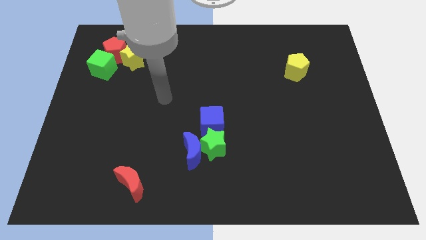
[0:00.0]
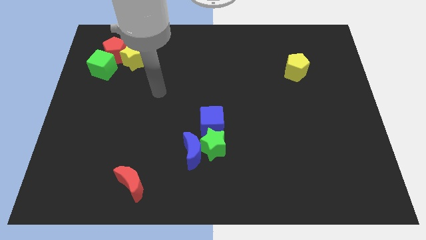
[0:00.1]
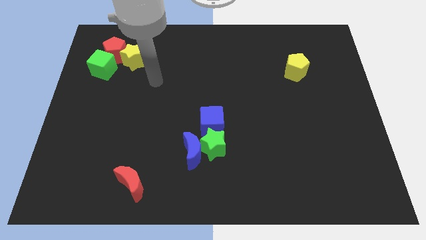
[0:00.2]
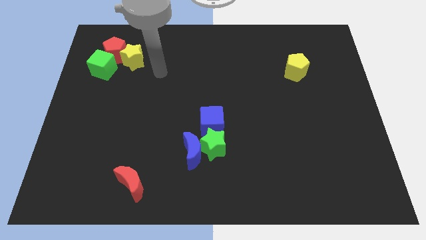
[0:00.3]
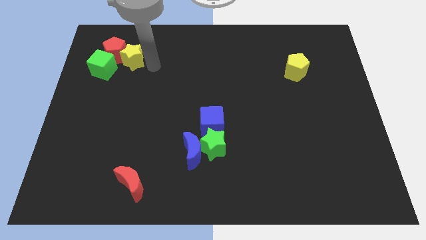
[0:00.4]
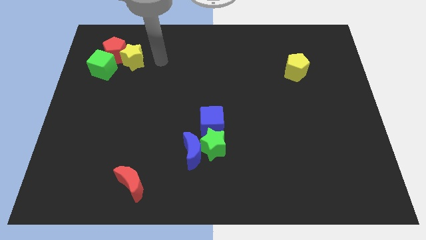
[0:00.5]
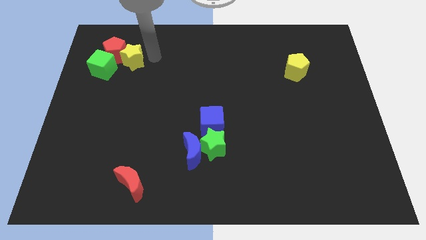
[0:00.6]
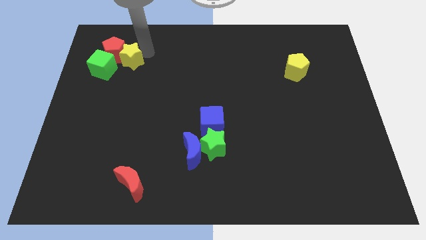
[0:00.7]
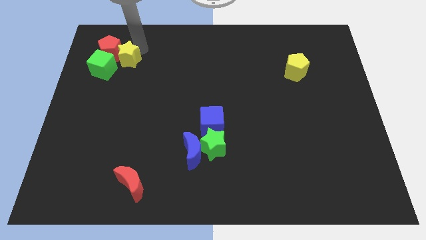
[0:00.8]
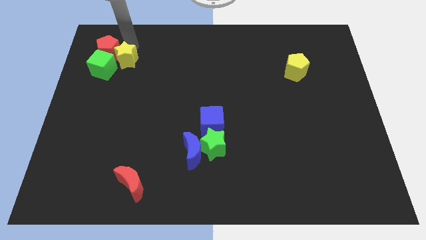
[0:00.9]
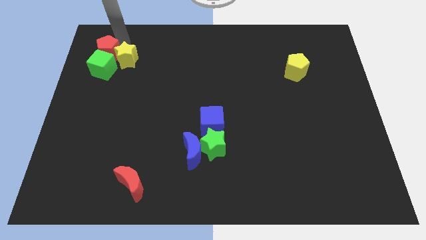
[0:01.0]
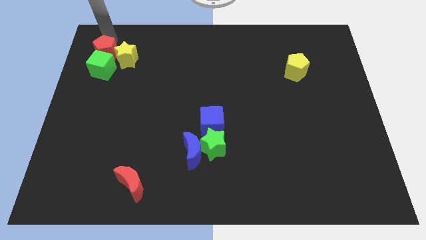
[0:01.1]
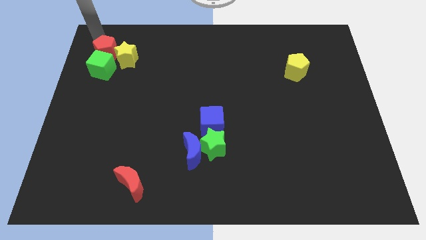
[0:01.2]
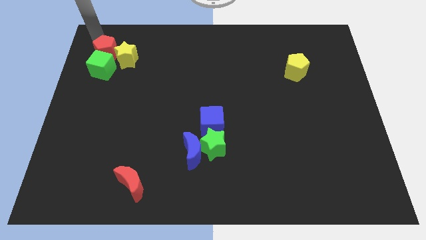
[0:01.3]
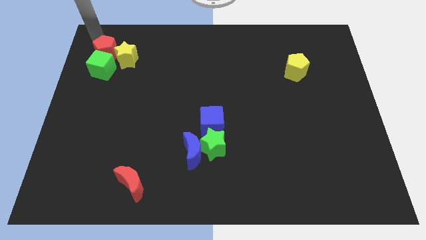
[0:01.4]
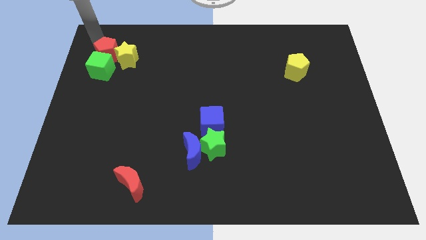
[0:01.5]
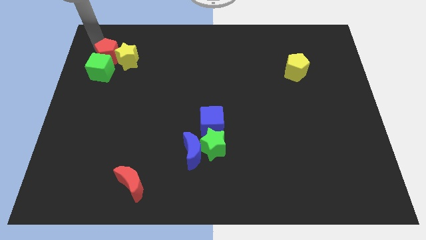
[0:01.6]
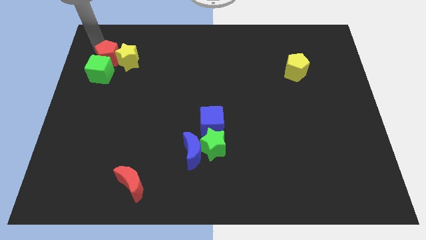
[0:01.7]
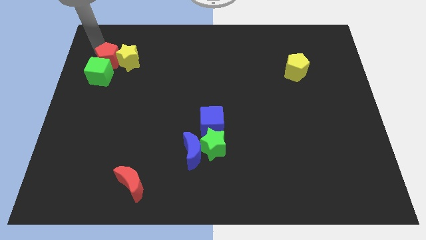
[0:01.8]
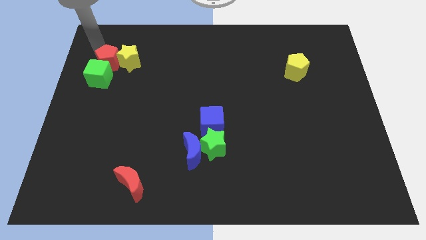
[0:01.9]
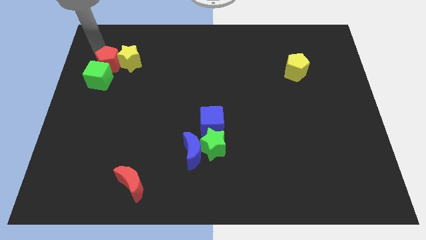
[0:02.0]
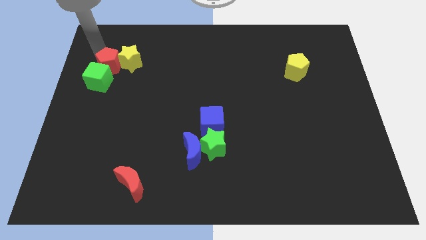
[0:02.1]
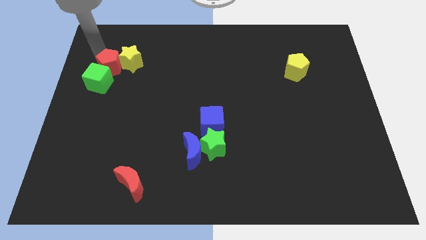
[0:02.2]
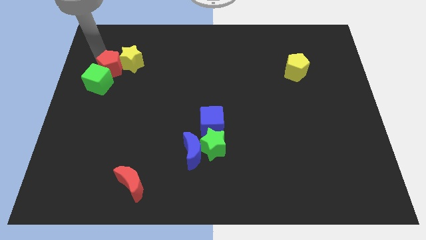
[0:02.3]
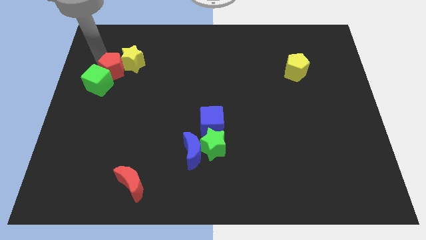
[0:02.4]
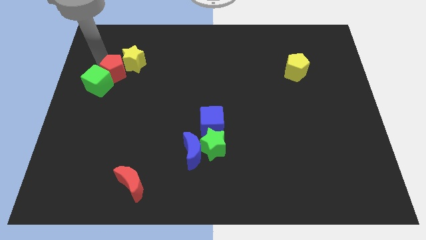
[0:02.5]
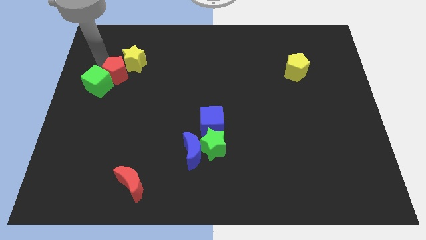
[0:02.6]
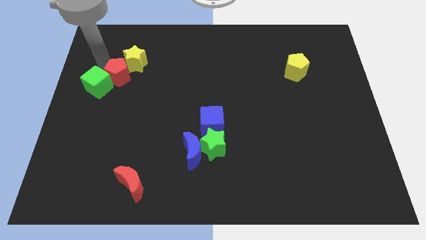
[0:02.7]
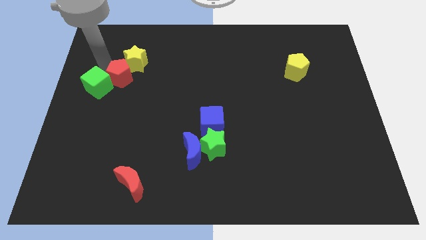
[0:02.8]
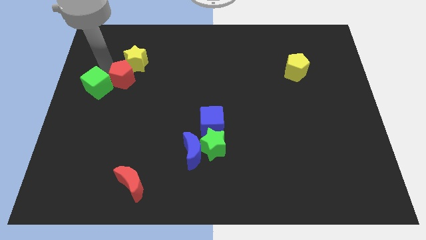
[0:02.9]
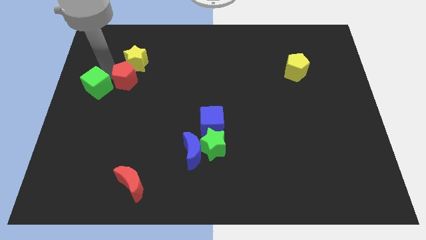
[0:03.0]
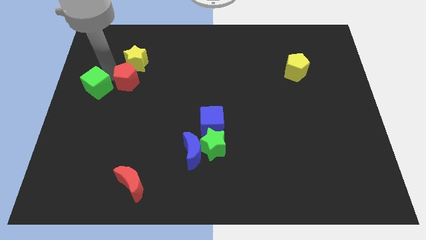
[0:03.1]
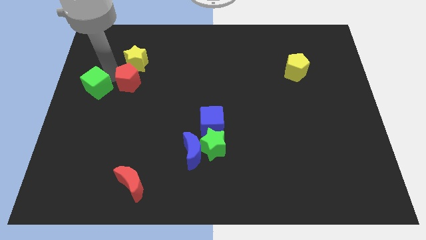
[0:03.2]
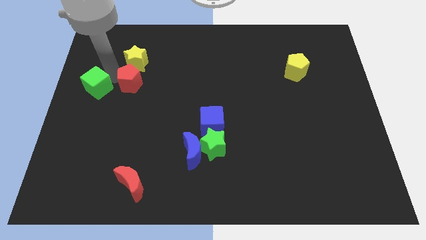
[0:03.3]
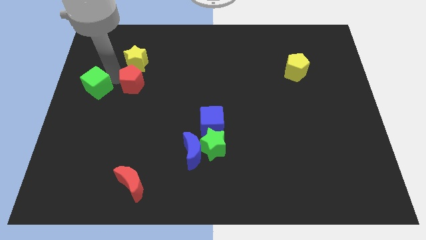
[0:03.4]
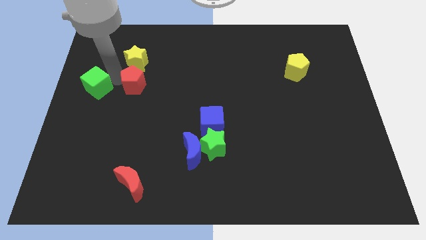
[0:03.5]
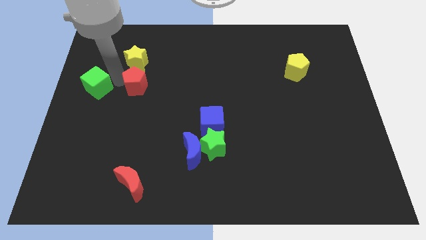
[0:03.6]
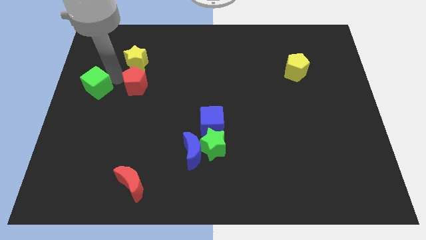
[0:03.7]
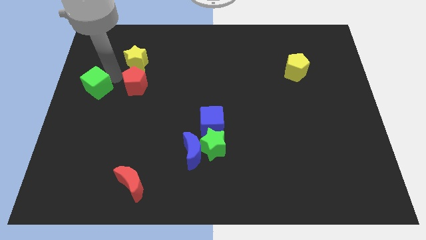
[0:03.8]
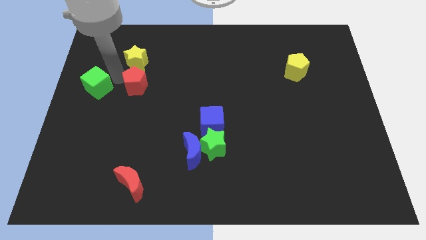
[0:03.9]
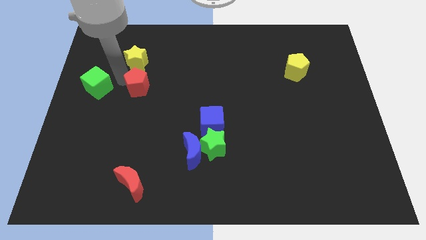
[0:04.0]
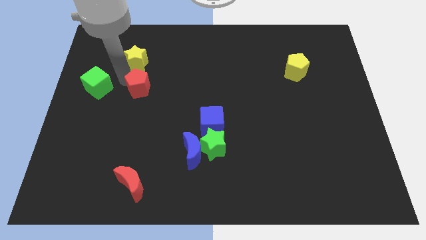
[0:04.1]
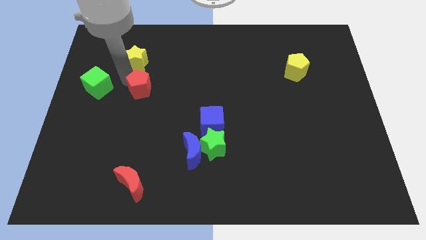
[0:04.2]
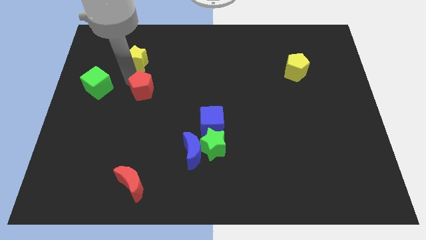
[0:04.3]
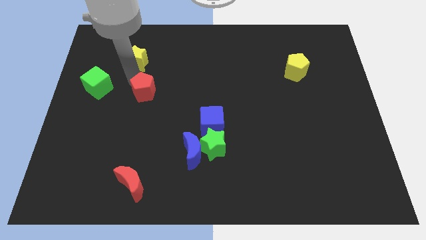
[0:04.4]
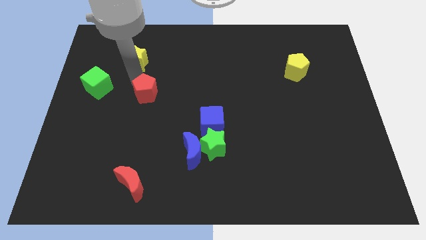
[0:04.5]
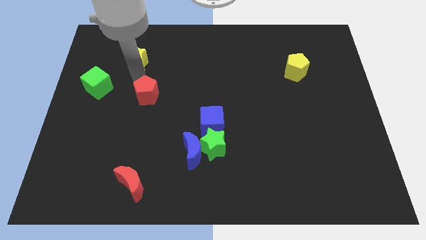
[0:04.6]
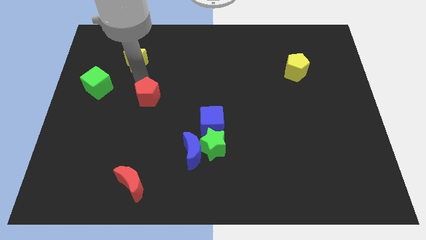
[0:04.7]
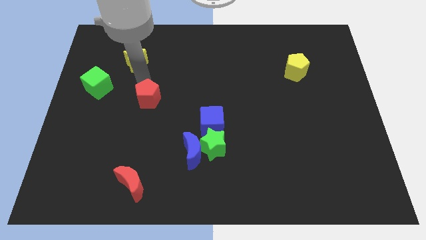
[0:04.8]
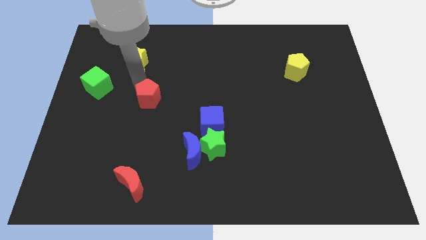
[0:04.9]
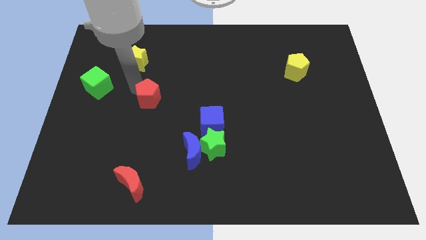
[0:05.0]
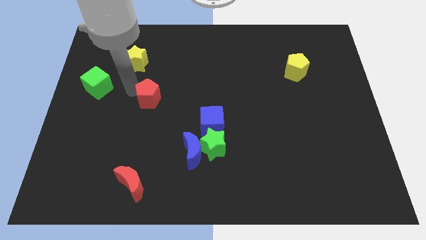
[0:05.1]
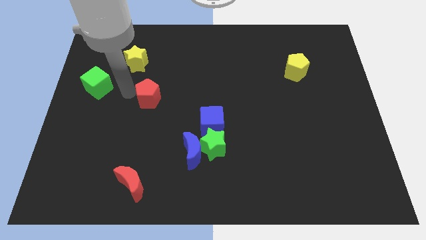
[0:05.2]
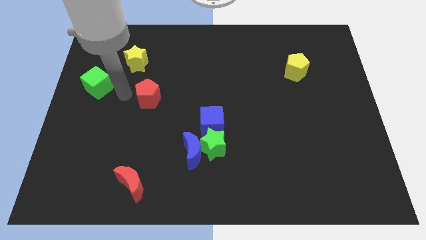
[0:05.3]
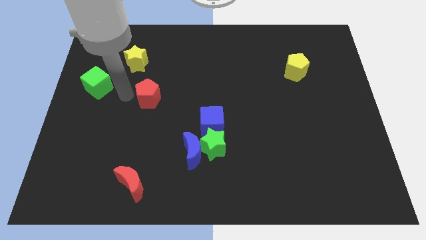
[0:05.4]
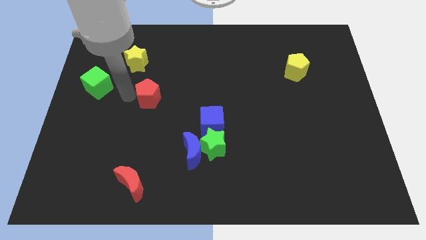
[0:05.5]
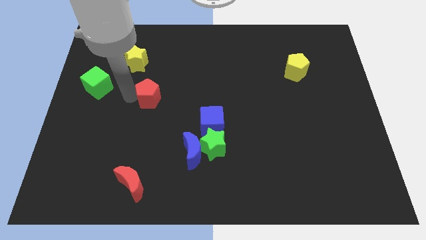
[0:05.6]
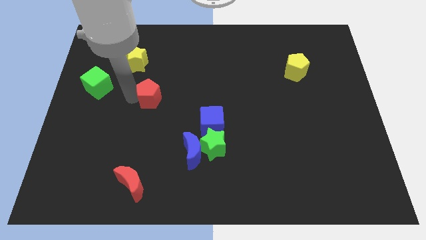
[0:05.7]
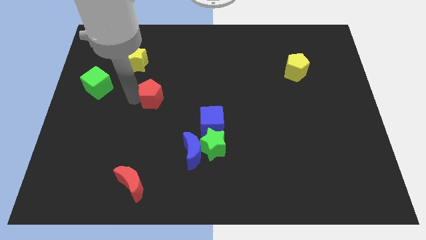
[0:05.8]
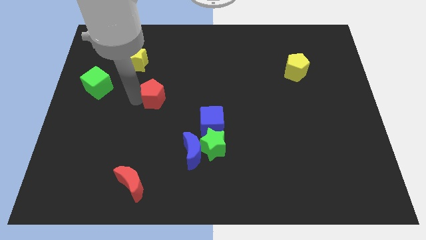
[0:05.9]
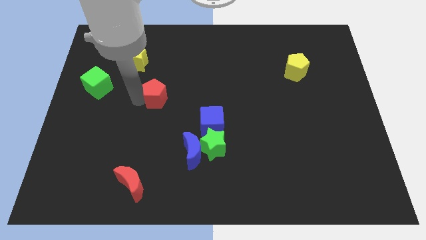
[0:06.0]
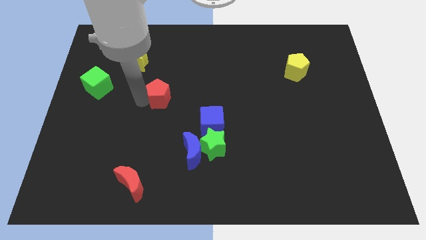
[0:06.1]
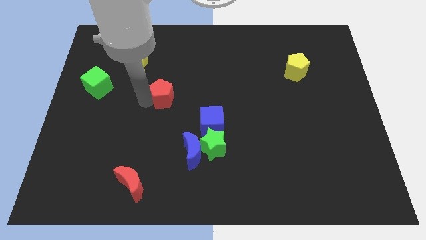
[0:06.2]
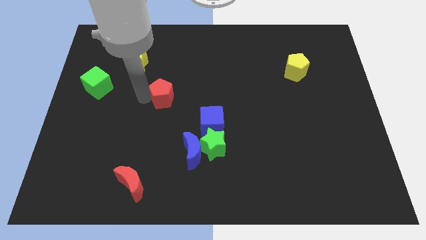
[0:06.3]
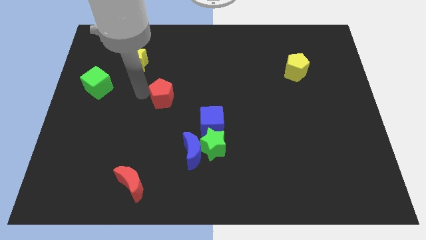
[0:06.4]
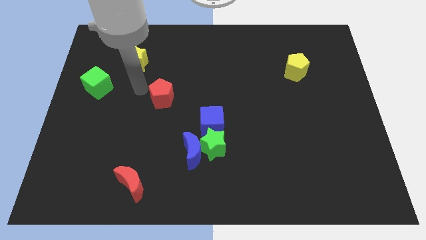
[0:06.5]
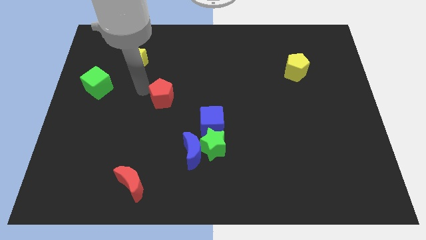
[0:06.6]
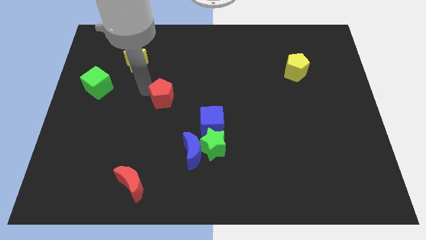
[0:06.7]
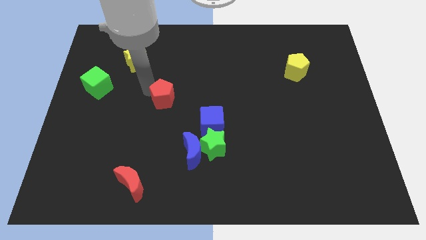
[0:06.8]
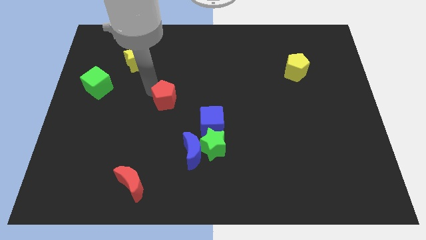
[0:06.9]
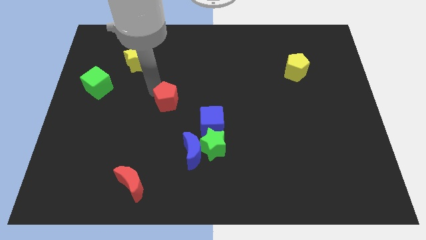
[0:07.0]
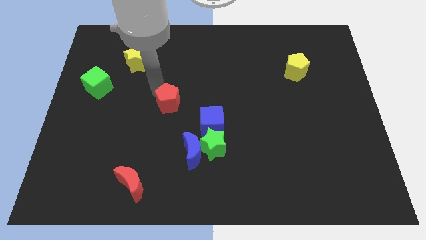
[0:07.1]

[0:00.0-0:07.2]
move the red pentagon to the top left side of the blue cube
